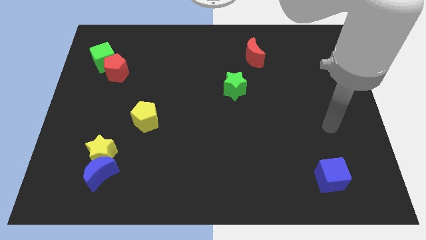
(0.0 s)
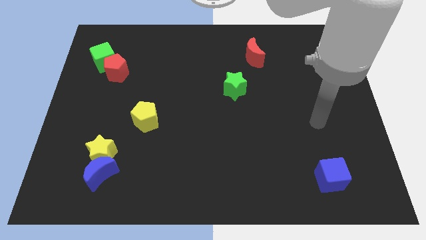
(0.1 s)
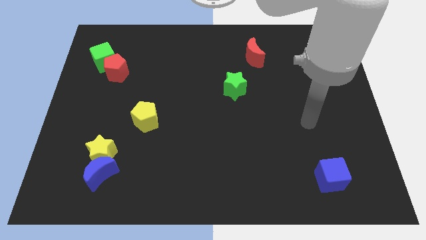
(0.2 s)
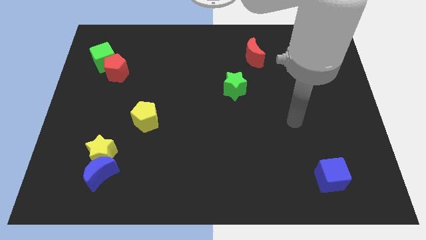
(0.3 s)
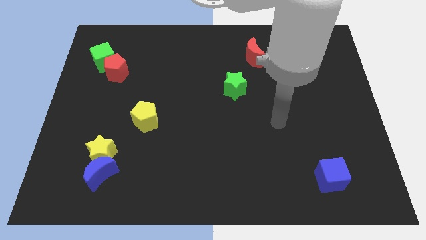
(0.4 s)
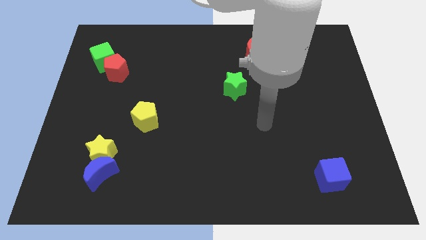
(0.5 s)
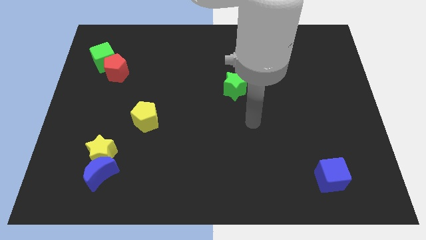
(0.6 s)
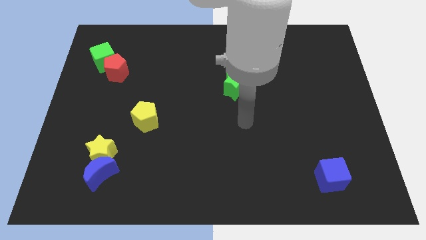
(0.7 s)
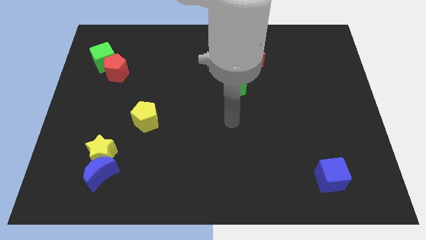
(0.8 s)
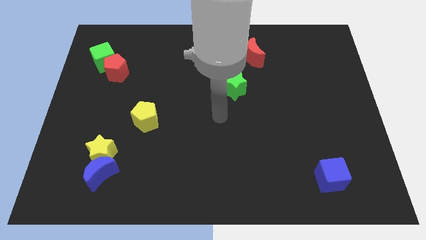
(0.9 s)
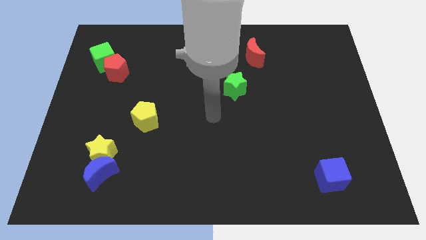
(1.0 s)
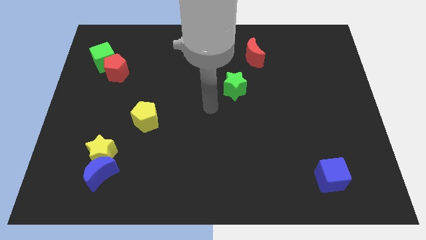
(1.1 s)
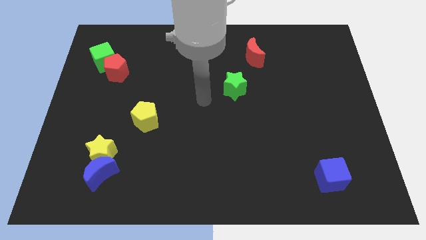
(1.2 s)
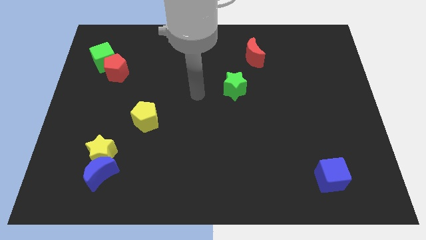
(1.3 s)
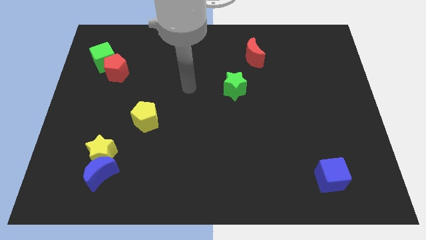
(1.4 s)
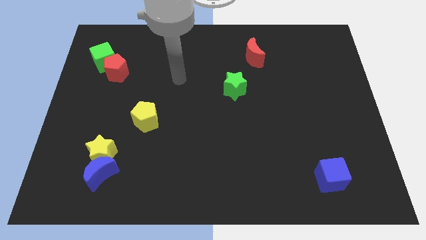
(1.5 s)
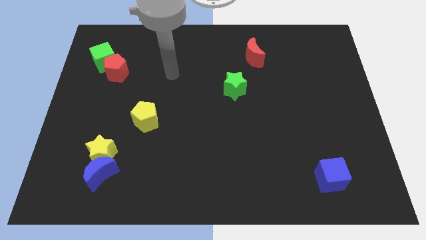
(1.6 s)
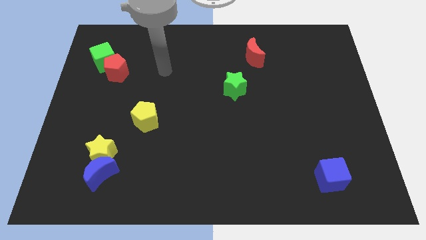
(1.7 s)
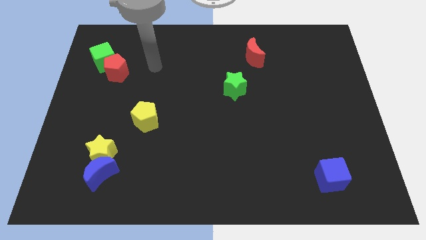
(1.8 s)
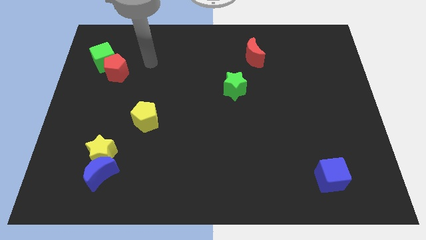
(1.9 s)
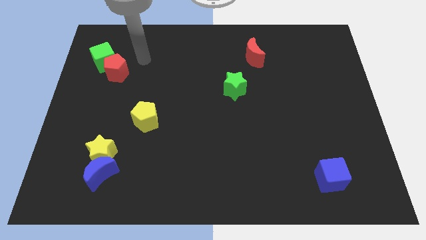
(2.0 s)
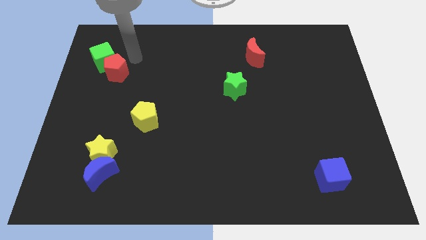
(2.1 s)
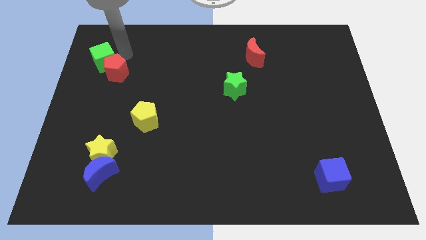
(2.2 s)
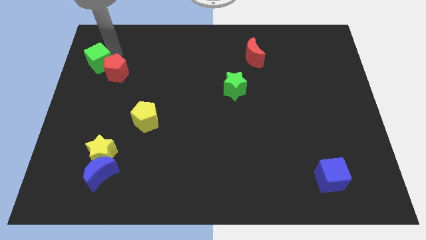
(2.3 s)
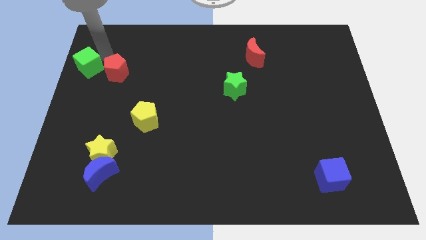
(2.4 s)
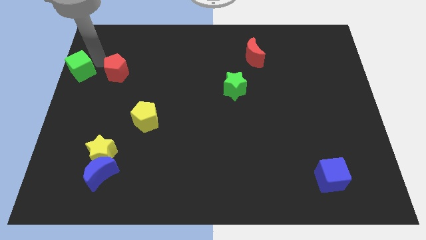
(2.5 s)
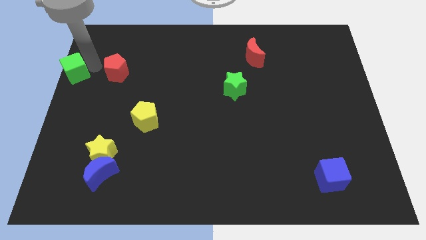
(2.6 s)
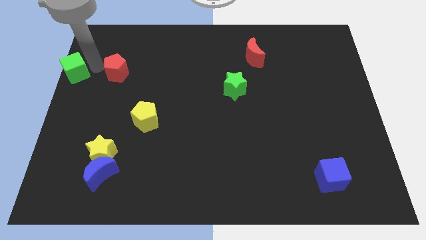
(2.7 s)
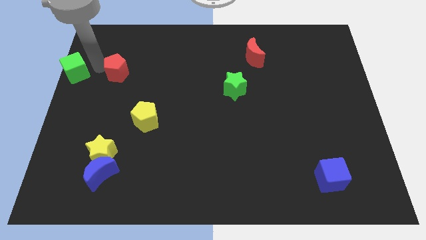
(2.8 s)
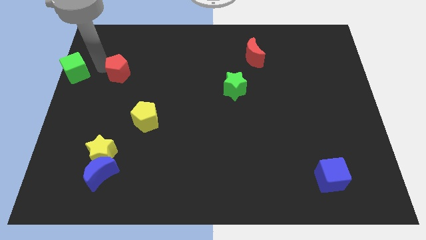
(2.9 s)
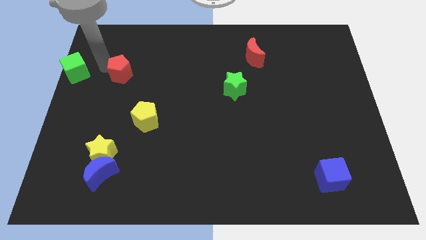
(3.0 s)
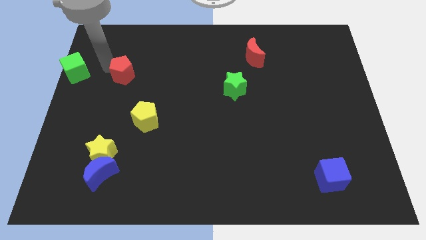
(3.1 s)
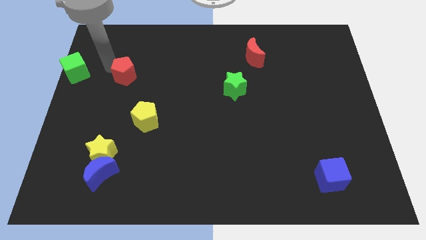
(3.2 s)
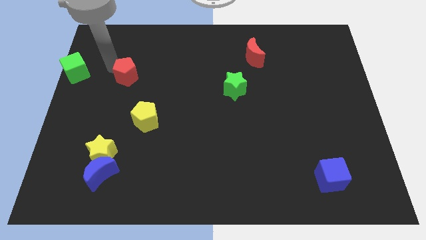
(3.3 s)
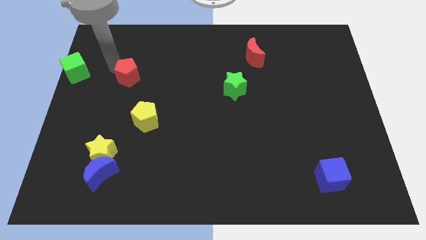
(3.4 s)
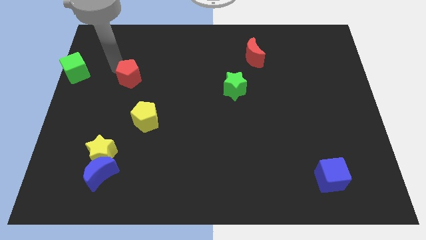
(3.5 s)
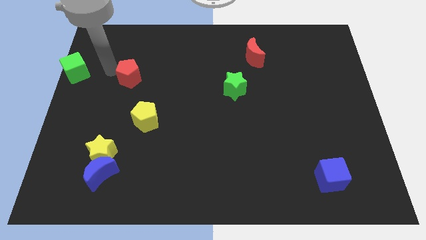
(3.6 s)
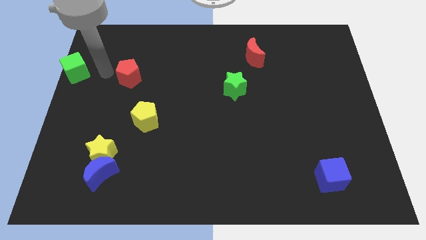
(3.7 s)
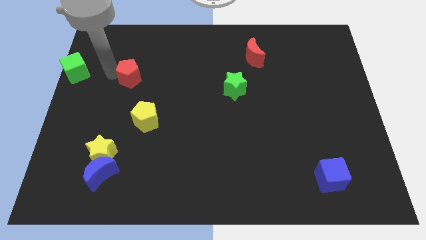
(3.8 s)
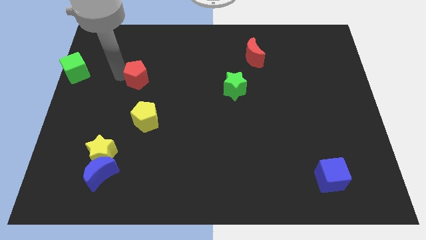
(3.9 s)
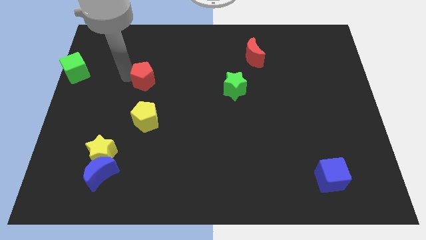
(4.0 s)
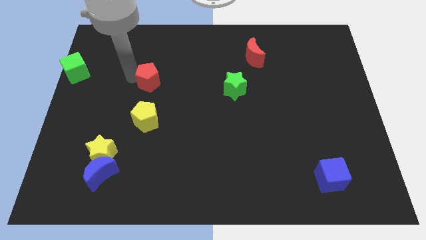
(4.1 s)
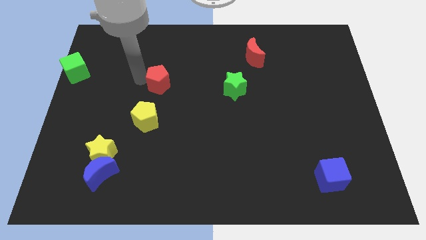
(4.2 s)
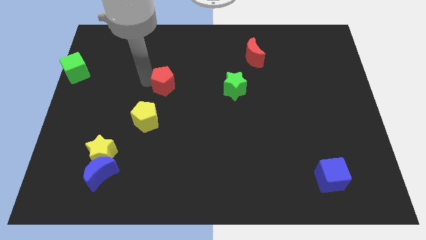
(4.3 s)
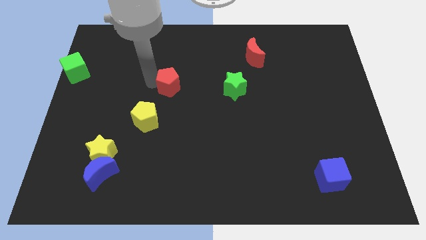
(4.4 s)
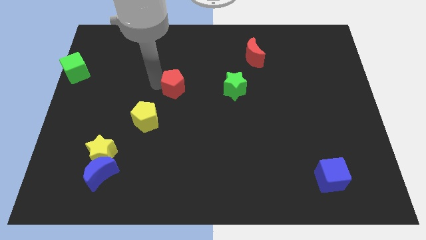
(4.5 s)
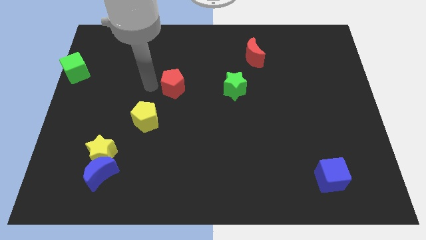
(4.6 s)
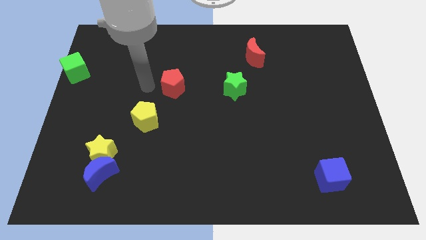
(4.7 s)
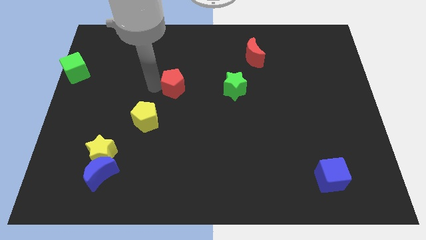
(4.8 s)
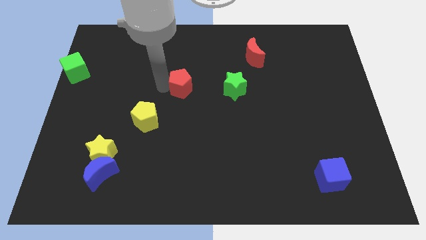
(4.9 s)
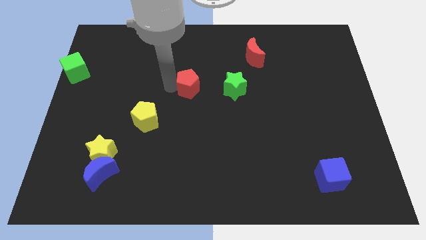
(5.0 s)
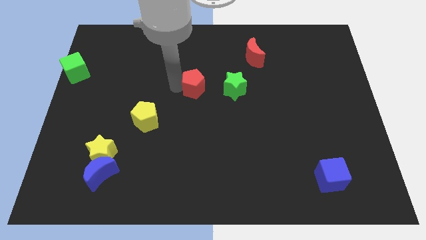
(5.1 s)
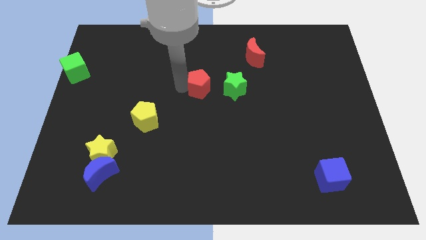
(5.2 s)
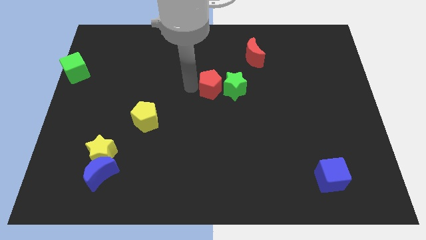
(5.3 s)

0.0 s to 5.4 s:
move the red pentagon to the green star

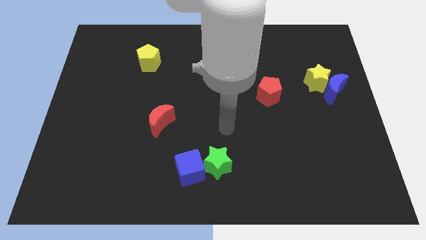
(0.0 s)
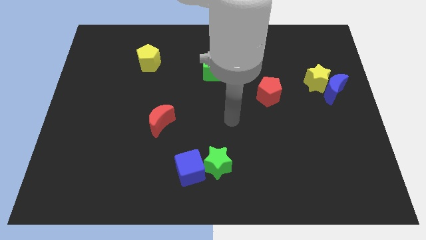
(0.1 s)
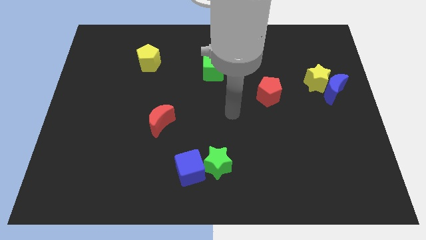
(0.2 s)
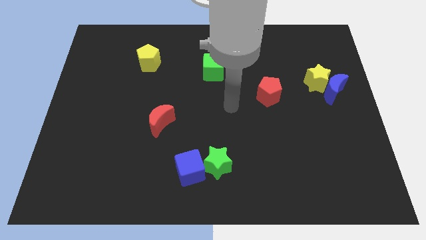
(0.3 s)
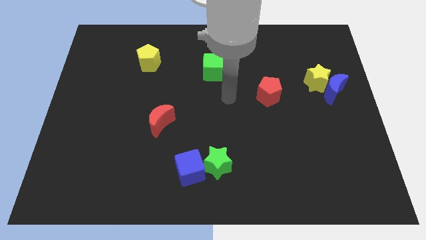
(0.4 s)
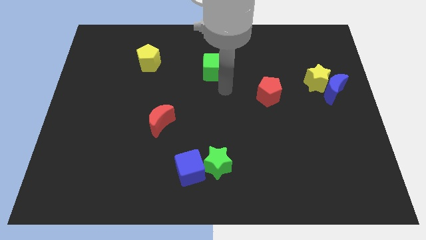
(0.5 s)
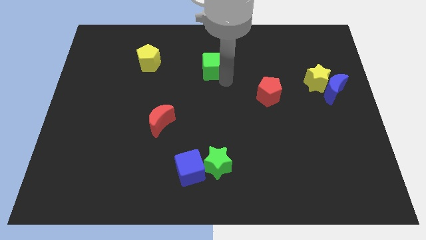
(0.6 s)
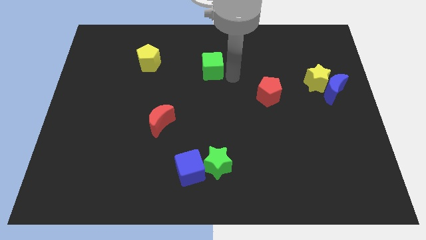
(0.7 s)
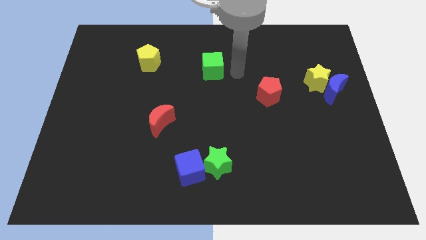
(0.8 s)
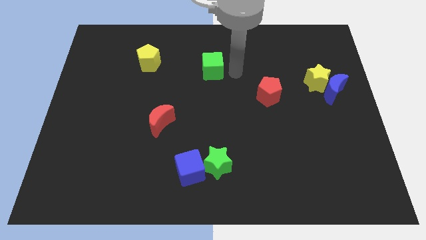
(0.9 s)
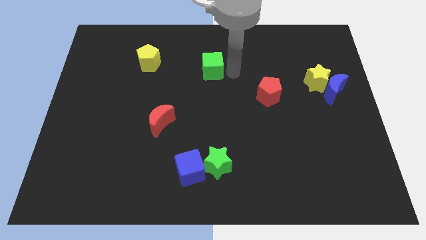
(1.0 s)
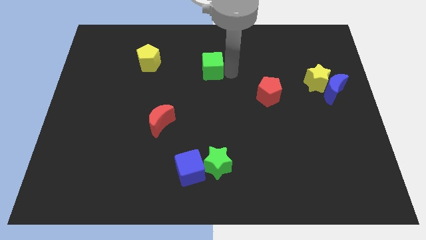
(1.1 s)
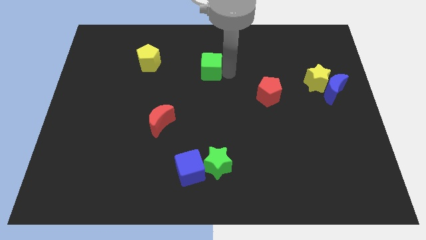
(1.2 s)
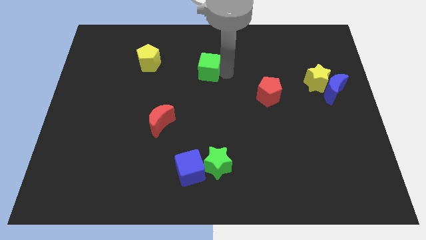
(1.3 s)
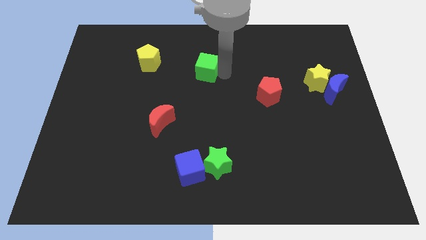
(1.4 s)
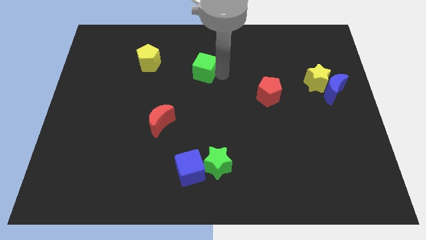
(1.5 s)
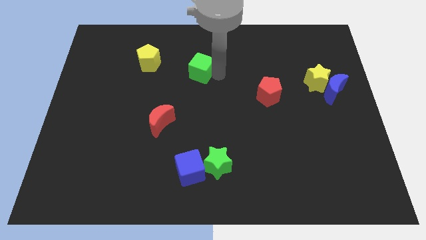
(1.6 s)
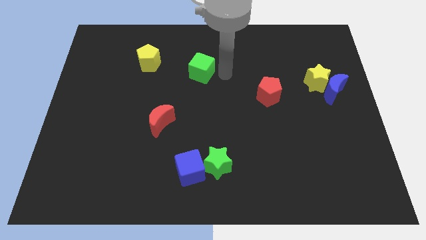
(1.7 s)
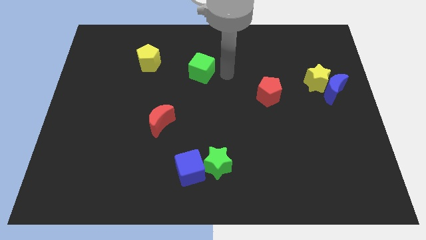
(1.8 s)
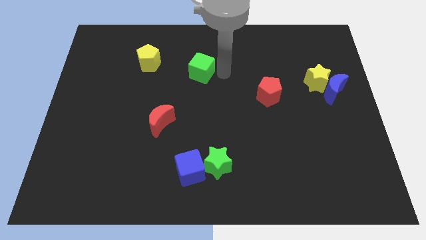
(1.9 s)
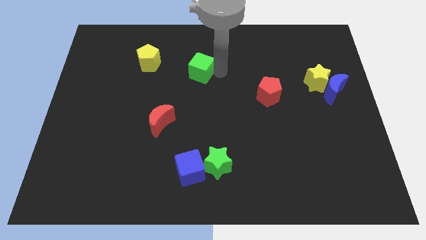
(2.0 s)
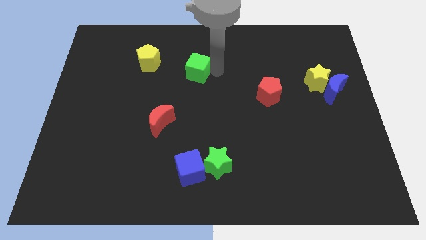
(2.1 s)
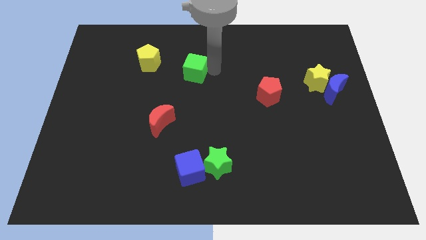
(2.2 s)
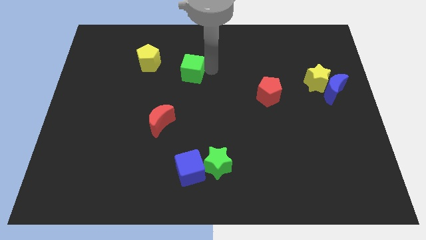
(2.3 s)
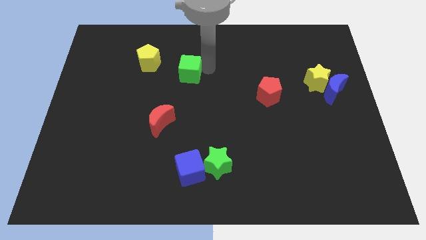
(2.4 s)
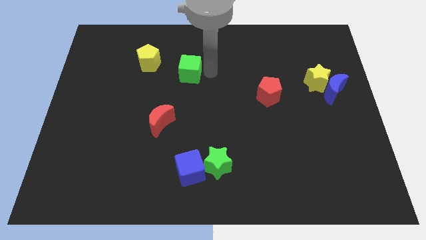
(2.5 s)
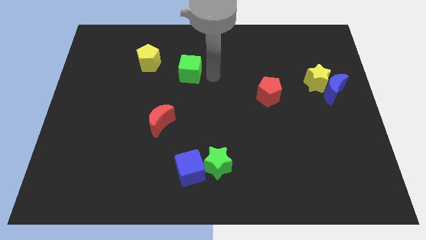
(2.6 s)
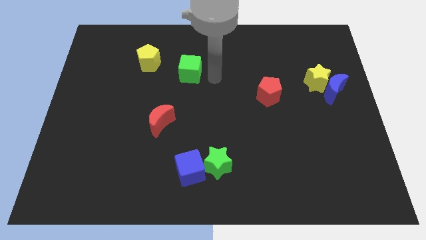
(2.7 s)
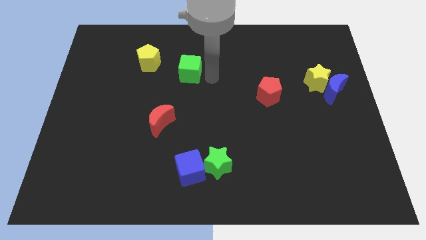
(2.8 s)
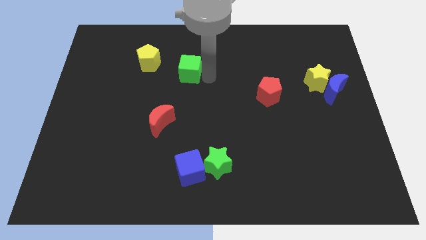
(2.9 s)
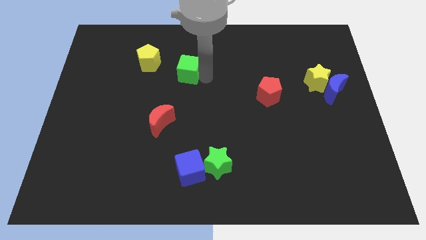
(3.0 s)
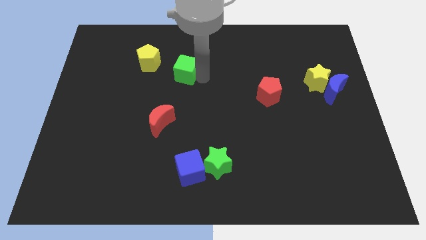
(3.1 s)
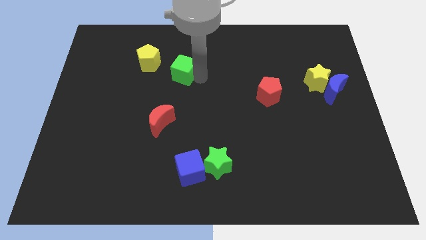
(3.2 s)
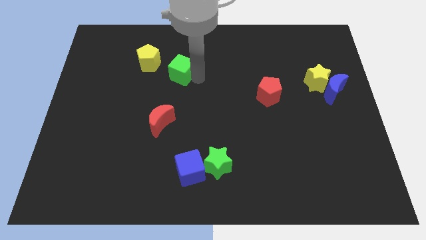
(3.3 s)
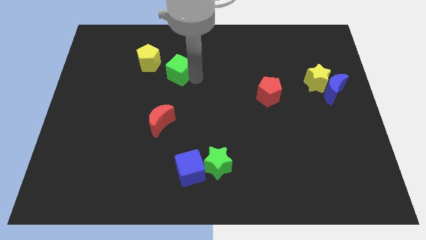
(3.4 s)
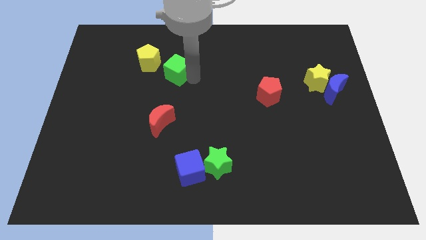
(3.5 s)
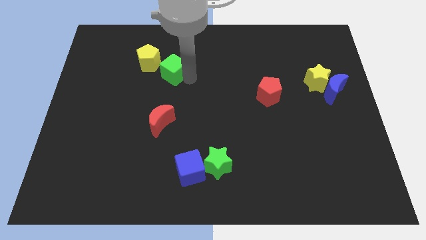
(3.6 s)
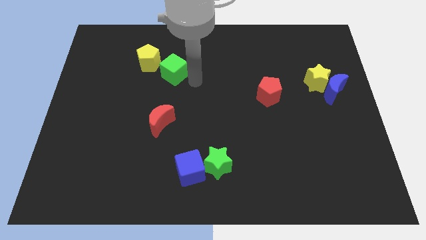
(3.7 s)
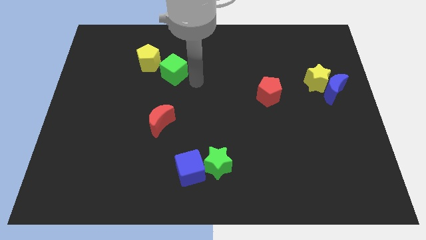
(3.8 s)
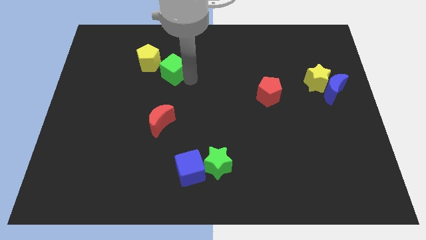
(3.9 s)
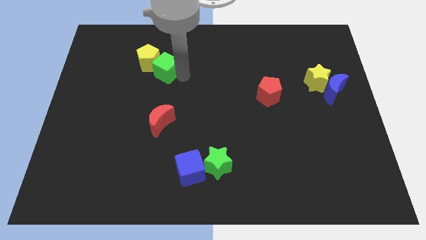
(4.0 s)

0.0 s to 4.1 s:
put the green cube next to the yellow pentagon
